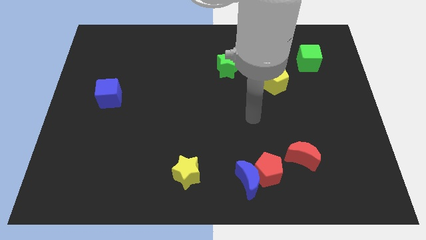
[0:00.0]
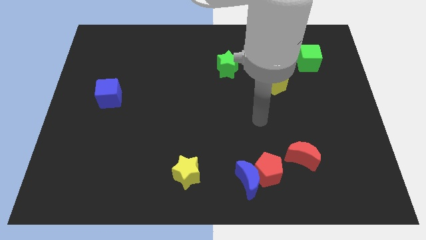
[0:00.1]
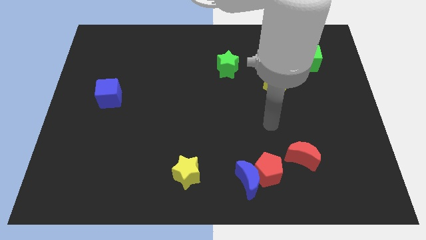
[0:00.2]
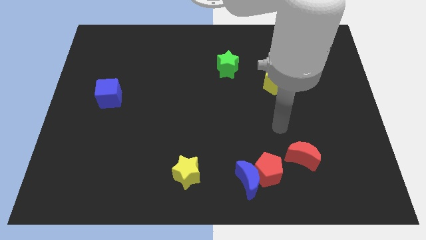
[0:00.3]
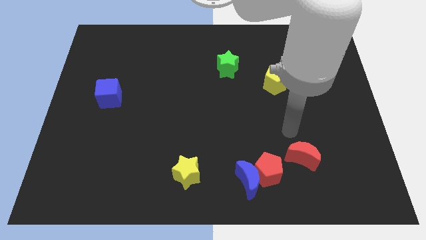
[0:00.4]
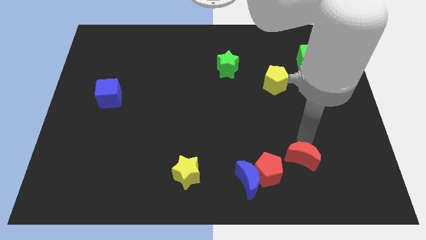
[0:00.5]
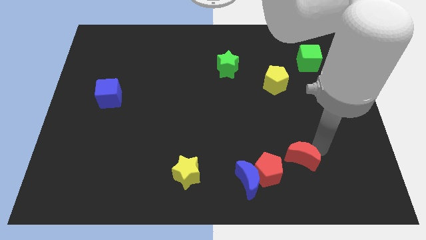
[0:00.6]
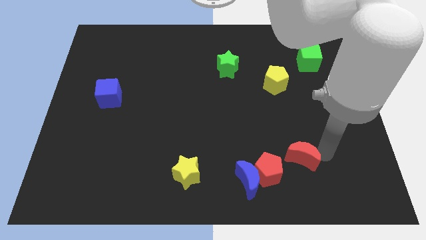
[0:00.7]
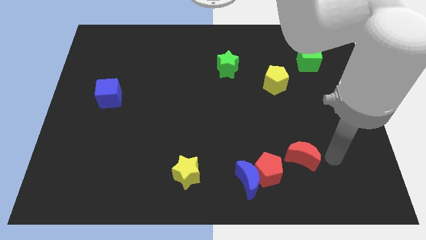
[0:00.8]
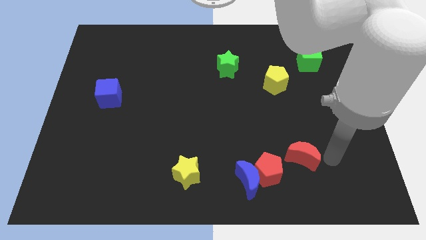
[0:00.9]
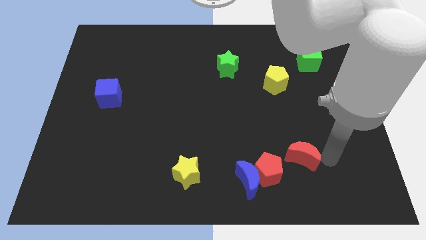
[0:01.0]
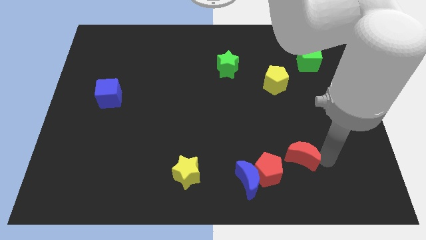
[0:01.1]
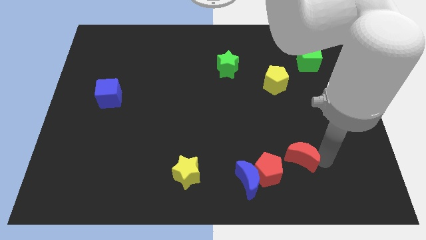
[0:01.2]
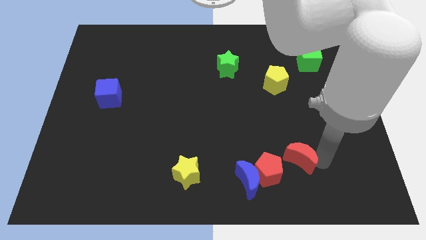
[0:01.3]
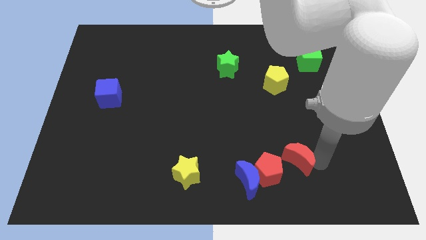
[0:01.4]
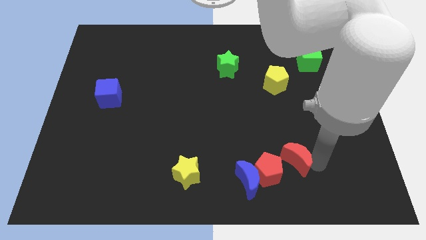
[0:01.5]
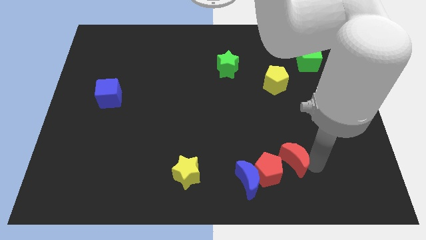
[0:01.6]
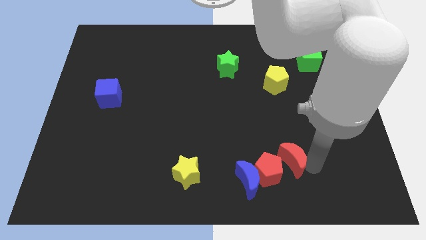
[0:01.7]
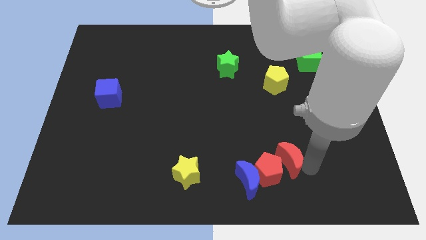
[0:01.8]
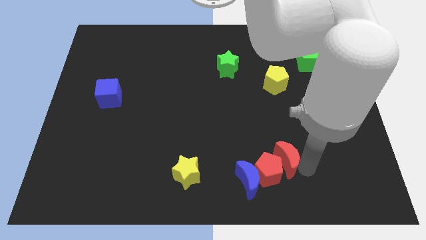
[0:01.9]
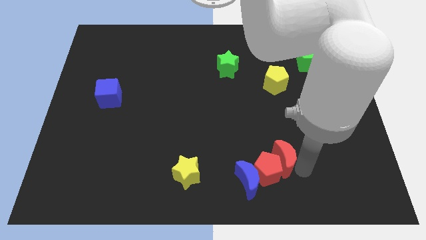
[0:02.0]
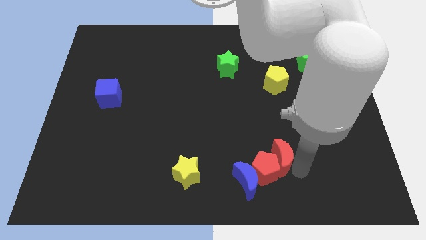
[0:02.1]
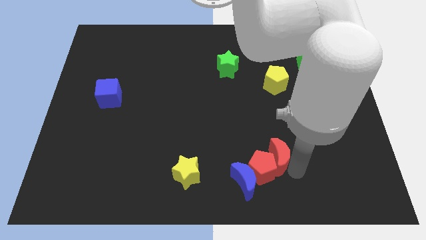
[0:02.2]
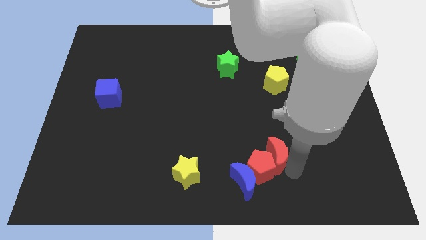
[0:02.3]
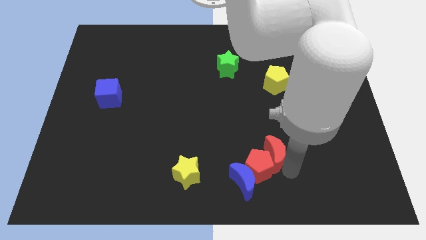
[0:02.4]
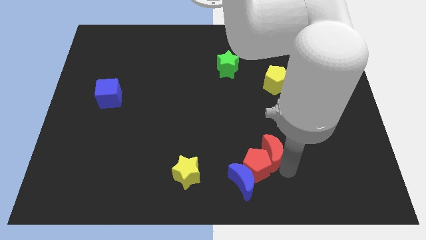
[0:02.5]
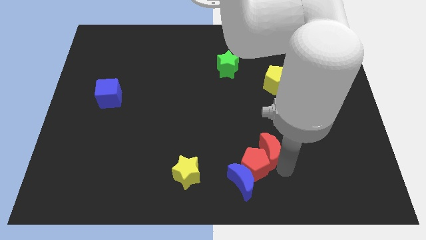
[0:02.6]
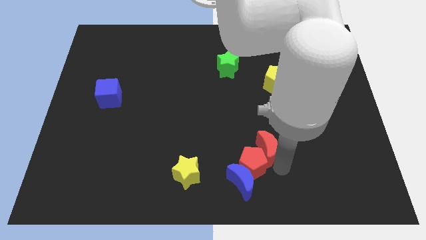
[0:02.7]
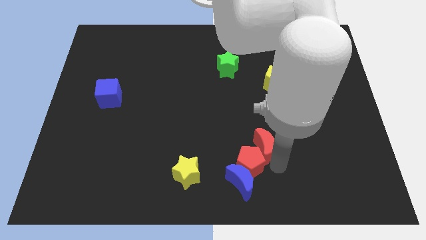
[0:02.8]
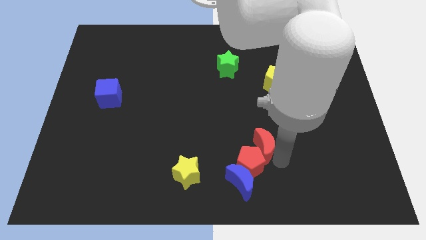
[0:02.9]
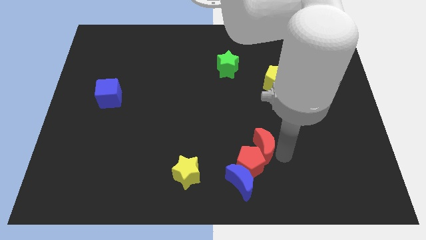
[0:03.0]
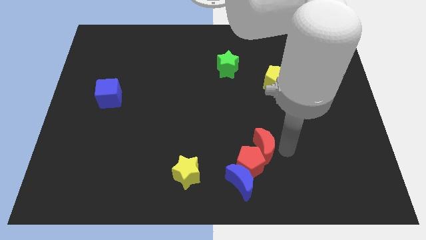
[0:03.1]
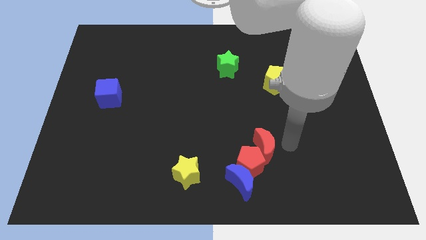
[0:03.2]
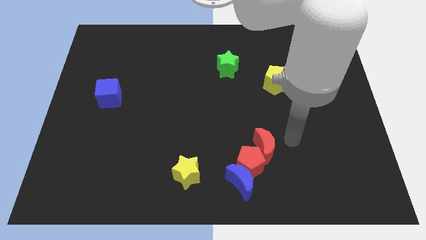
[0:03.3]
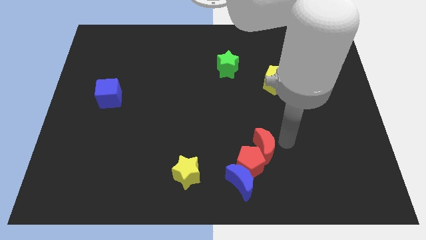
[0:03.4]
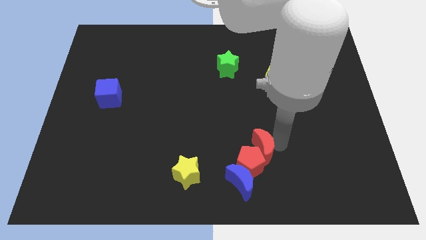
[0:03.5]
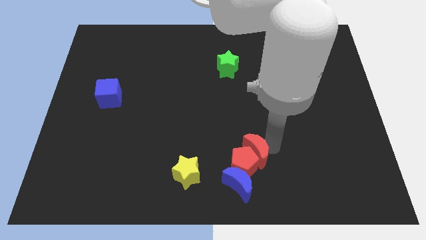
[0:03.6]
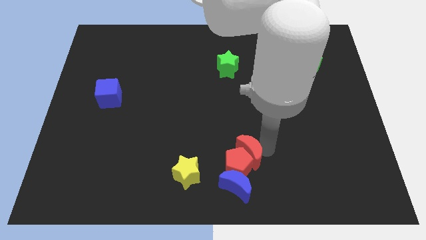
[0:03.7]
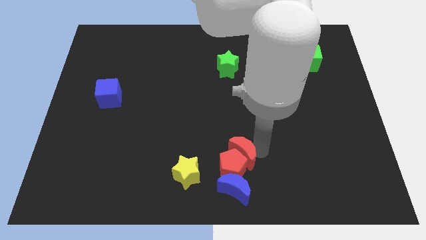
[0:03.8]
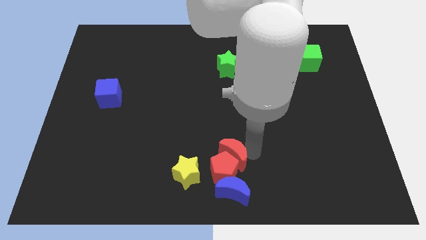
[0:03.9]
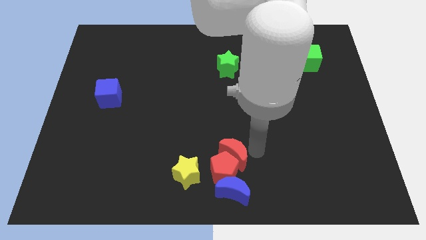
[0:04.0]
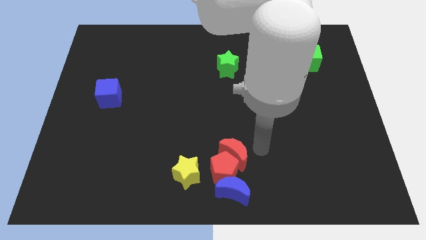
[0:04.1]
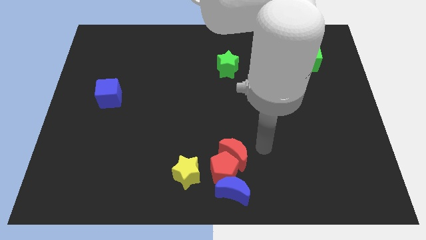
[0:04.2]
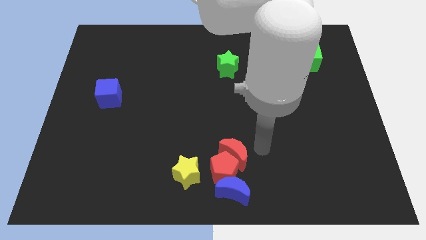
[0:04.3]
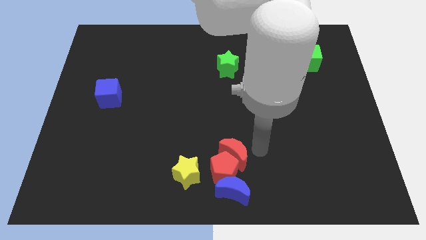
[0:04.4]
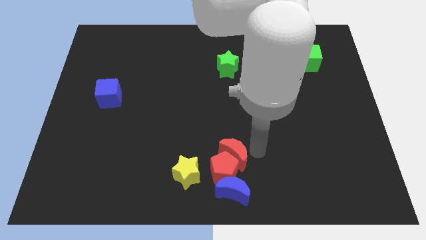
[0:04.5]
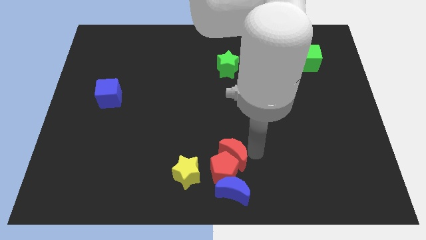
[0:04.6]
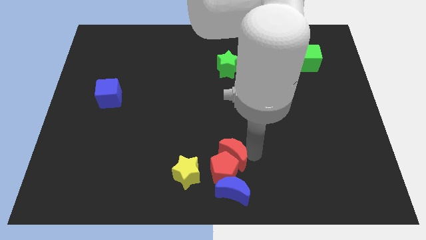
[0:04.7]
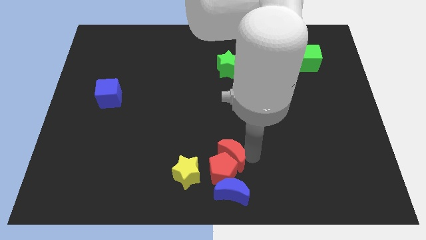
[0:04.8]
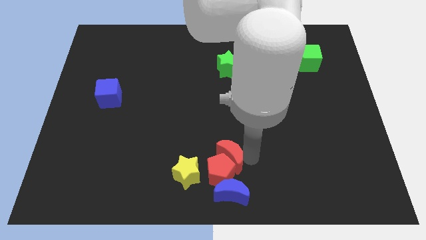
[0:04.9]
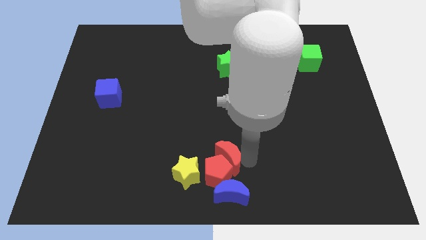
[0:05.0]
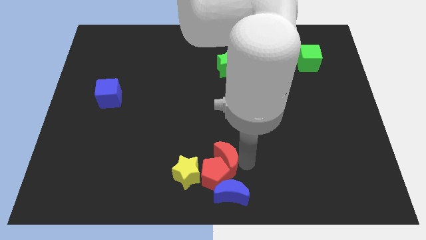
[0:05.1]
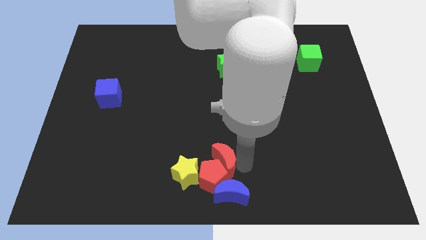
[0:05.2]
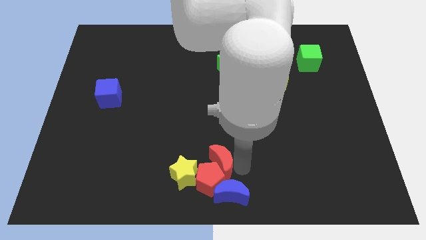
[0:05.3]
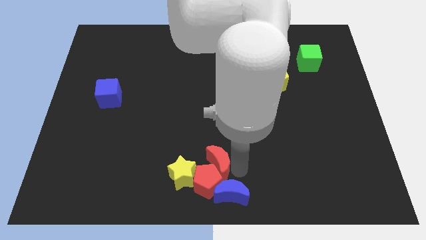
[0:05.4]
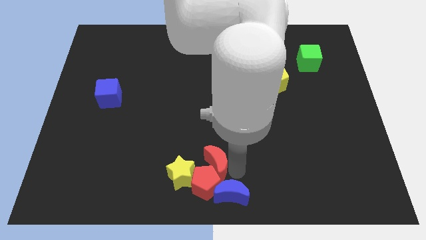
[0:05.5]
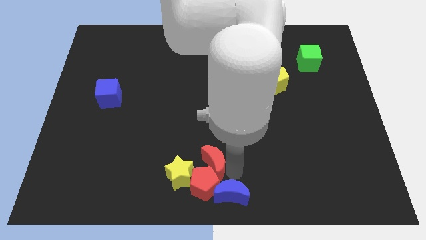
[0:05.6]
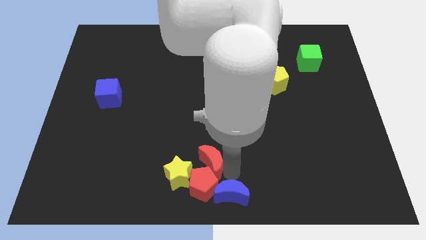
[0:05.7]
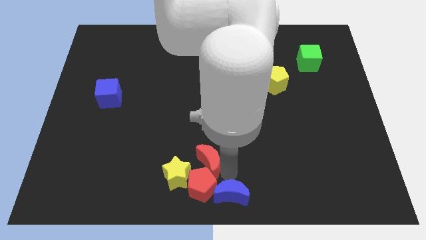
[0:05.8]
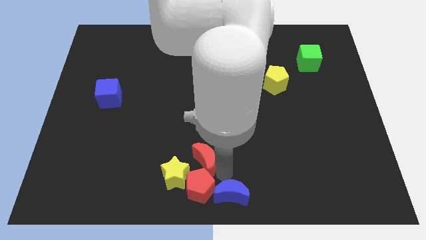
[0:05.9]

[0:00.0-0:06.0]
move the red moon left

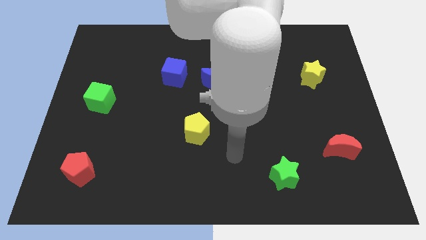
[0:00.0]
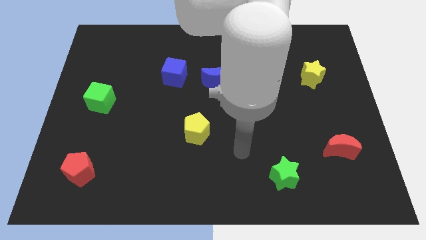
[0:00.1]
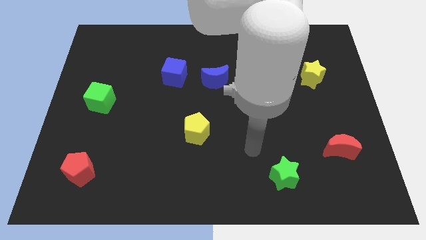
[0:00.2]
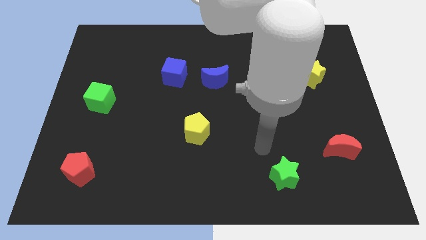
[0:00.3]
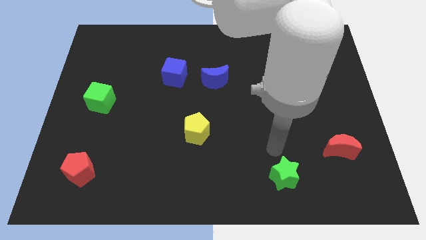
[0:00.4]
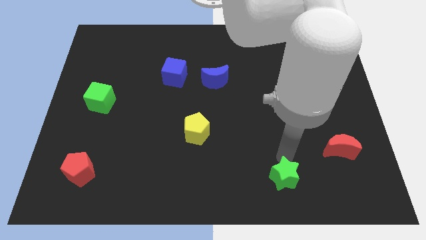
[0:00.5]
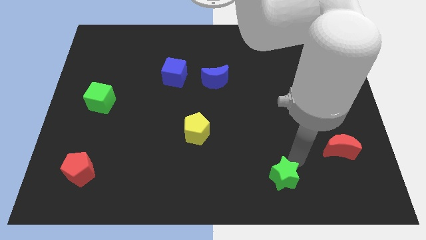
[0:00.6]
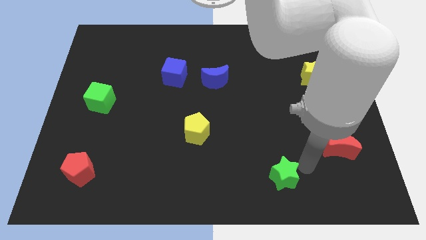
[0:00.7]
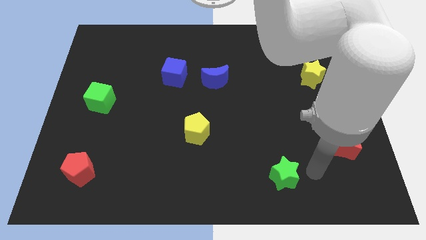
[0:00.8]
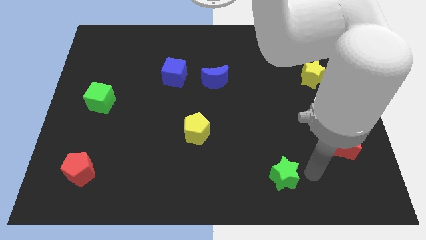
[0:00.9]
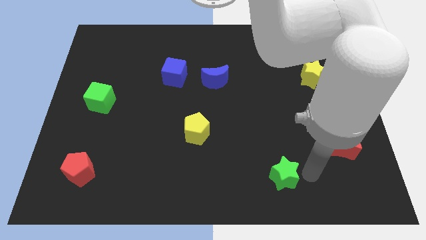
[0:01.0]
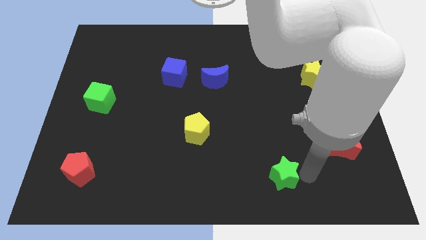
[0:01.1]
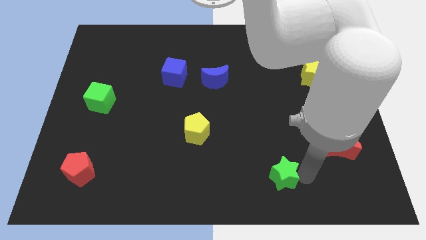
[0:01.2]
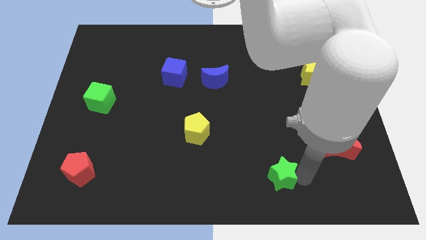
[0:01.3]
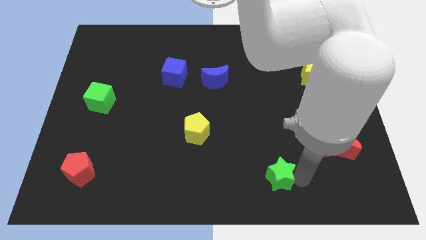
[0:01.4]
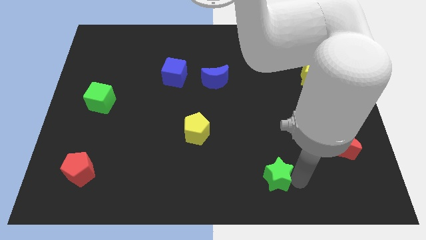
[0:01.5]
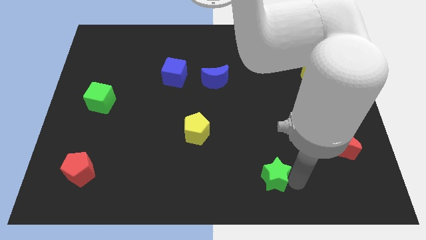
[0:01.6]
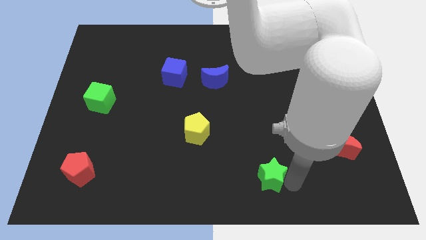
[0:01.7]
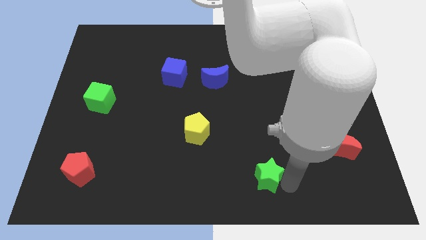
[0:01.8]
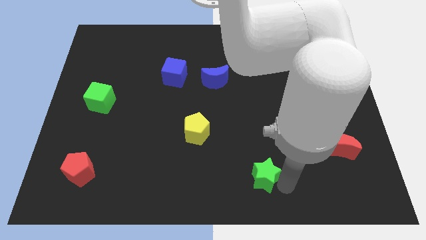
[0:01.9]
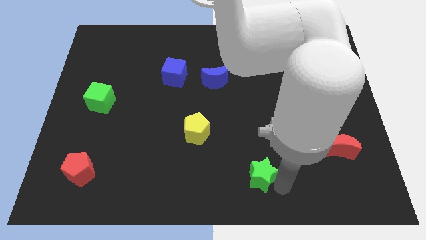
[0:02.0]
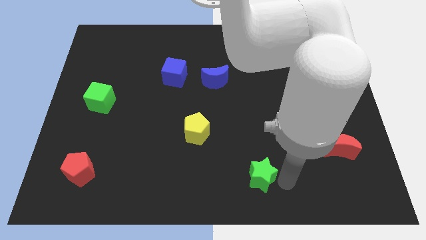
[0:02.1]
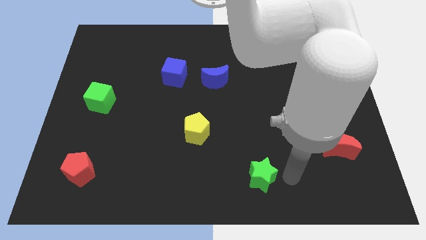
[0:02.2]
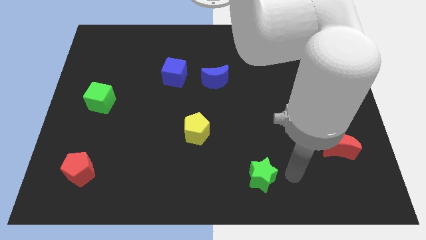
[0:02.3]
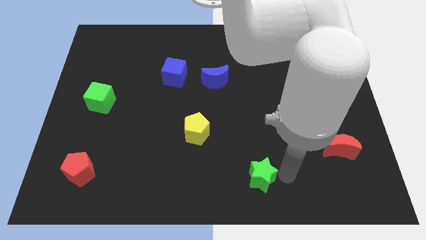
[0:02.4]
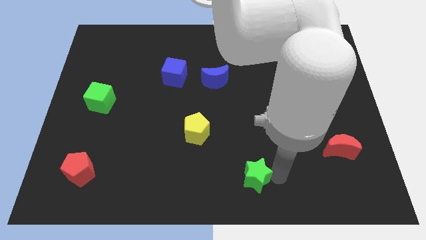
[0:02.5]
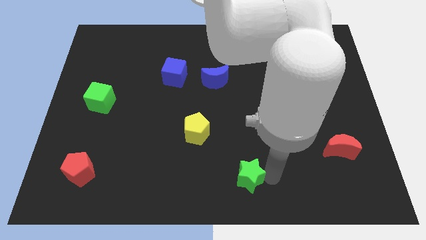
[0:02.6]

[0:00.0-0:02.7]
slide the green star to the left a little
